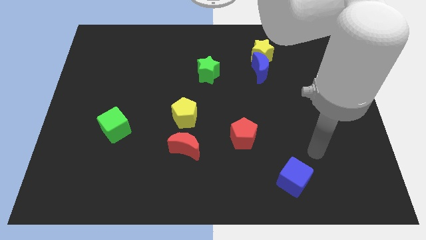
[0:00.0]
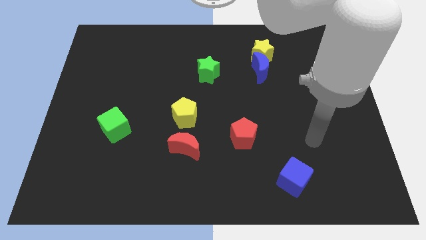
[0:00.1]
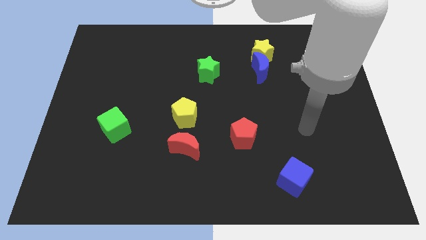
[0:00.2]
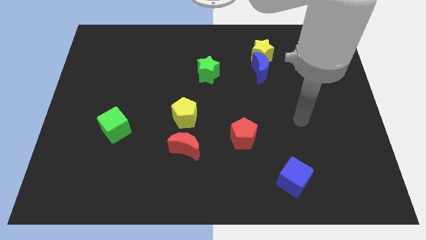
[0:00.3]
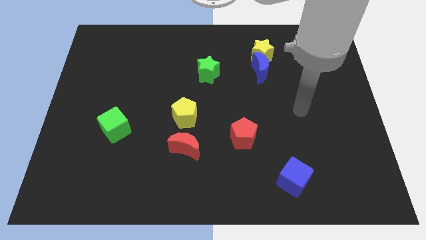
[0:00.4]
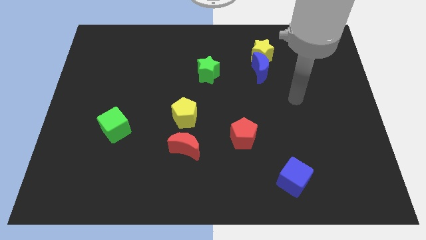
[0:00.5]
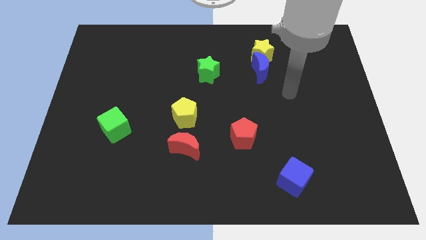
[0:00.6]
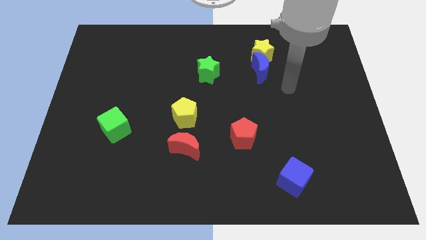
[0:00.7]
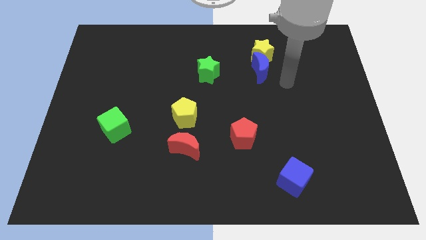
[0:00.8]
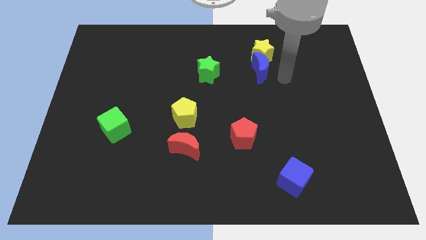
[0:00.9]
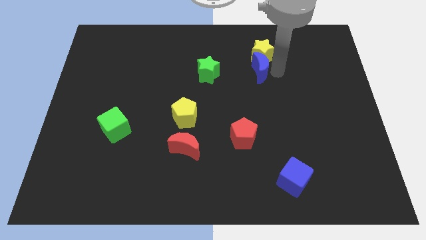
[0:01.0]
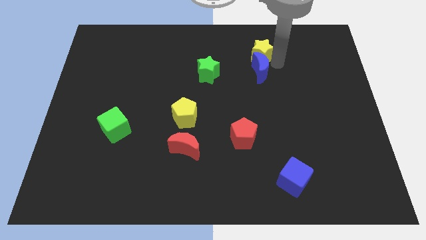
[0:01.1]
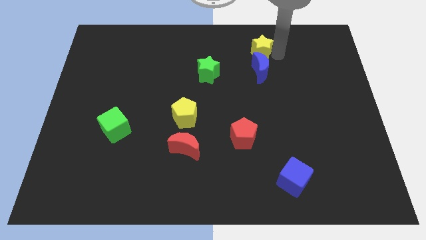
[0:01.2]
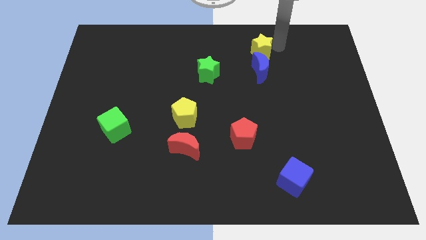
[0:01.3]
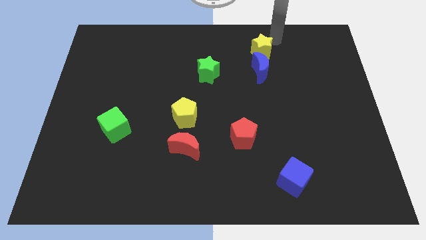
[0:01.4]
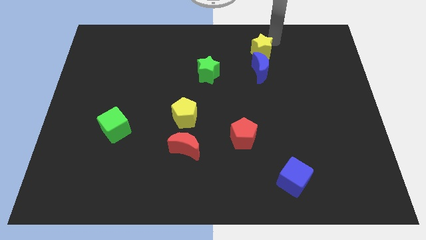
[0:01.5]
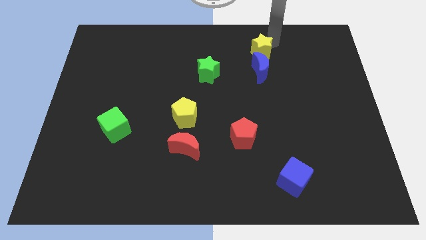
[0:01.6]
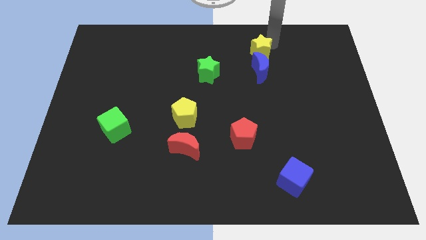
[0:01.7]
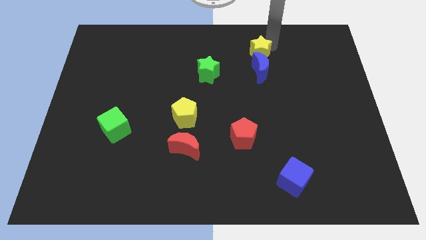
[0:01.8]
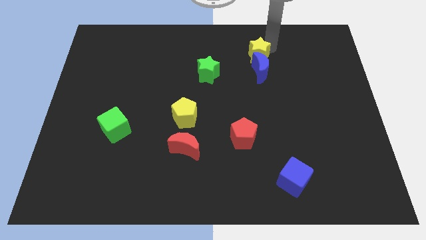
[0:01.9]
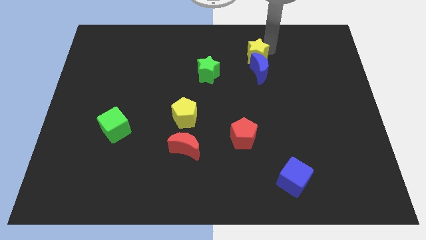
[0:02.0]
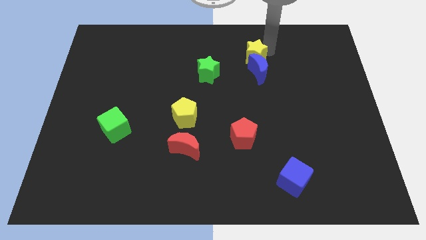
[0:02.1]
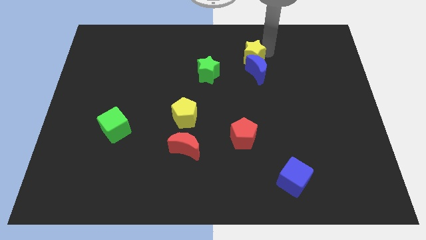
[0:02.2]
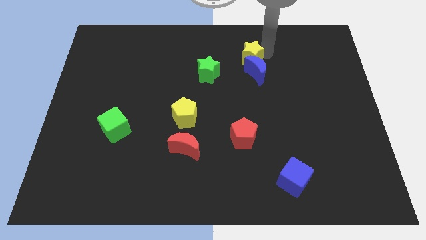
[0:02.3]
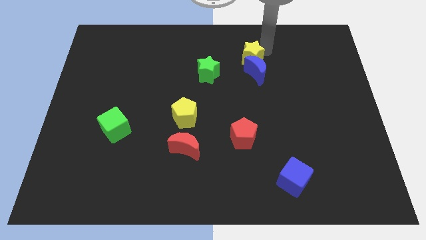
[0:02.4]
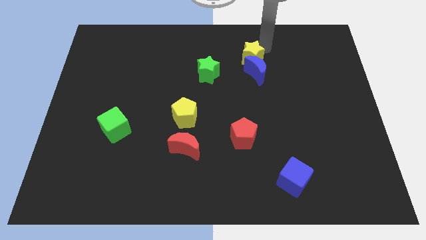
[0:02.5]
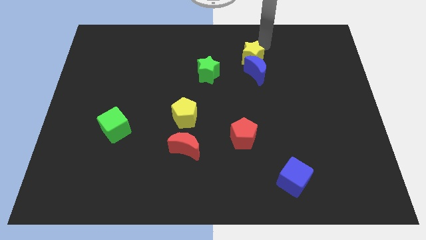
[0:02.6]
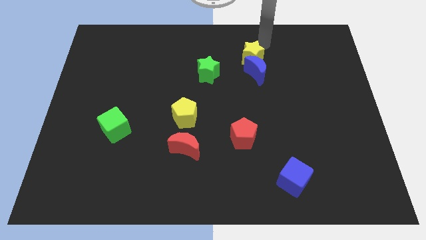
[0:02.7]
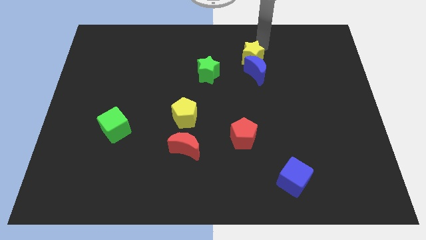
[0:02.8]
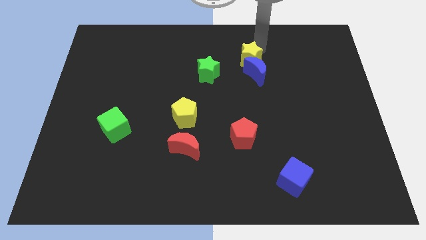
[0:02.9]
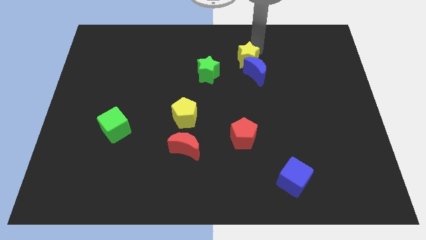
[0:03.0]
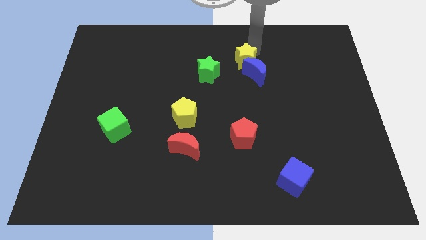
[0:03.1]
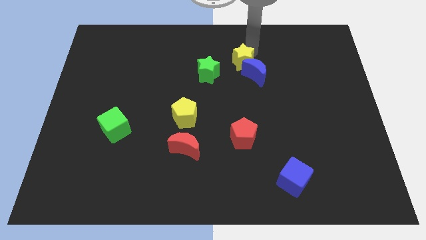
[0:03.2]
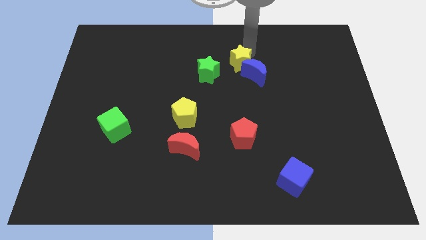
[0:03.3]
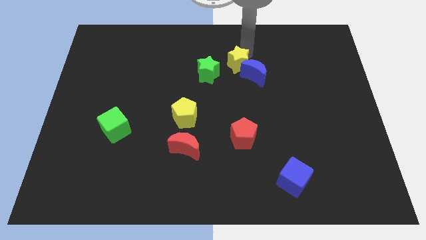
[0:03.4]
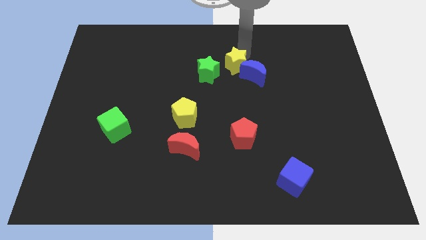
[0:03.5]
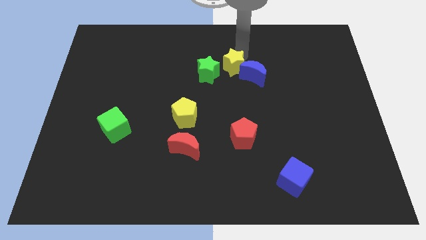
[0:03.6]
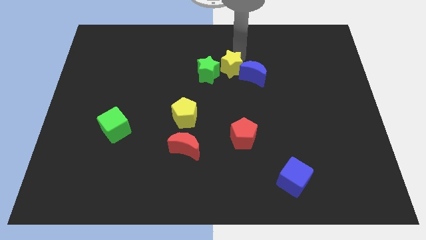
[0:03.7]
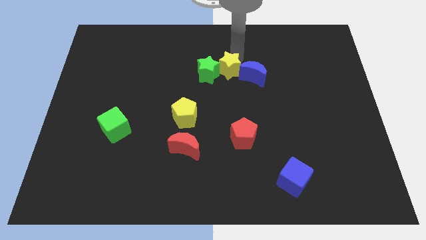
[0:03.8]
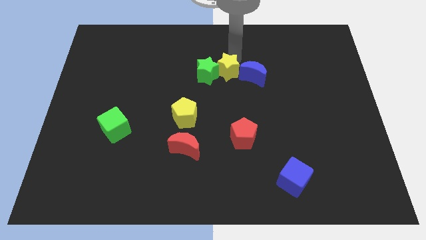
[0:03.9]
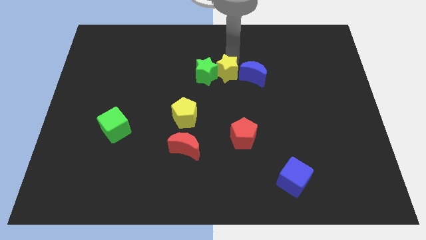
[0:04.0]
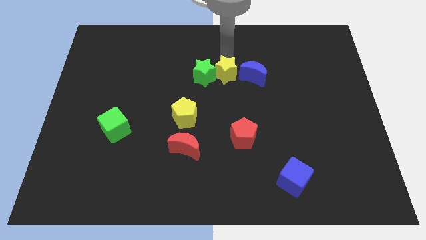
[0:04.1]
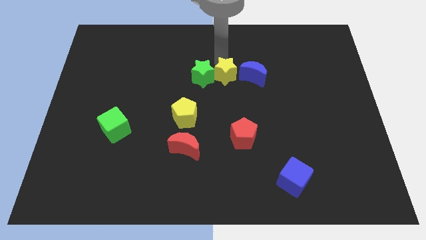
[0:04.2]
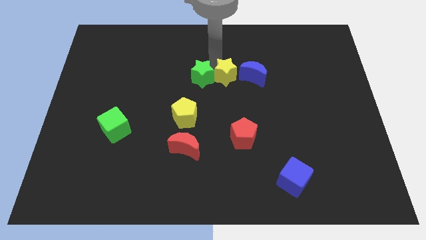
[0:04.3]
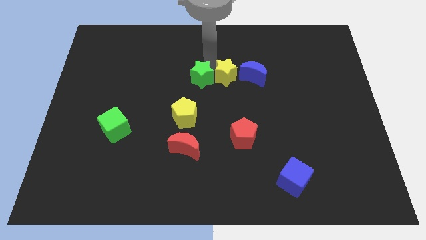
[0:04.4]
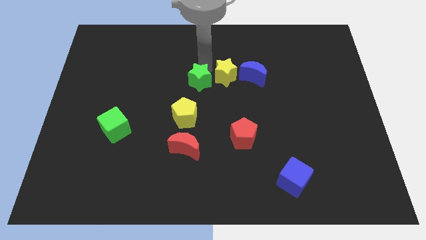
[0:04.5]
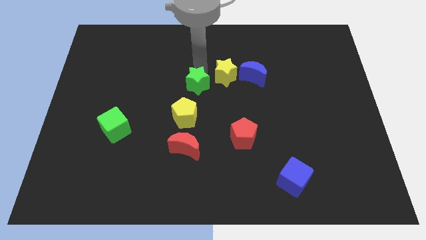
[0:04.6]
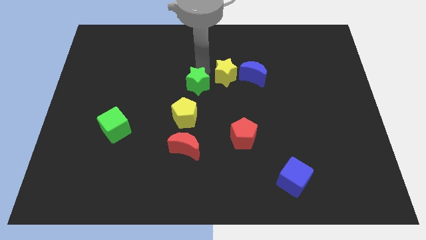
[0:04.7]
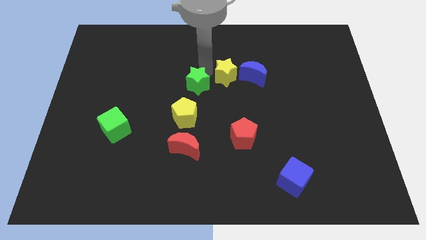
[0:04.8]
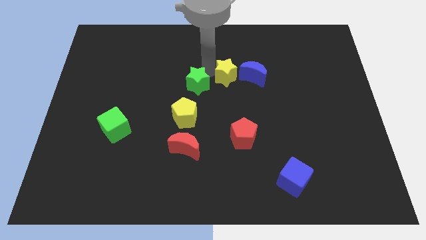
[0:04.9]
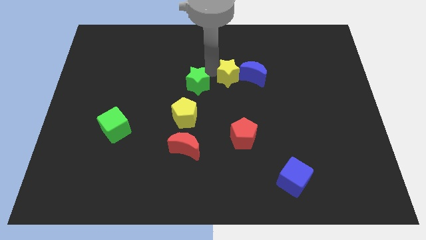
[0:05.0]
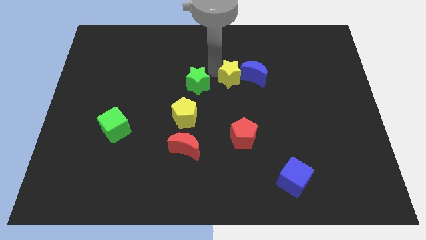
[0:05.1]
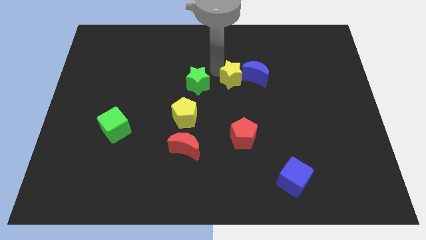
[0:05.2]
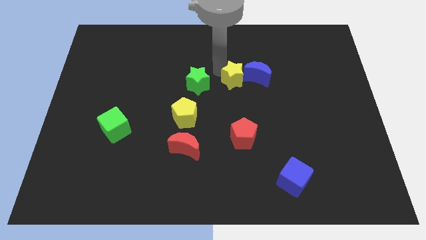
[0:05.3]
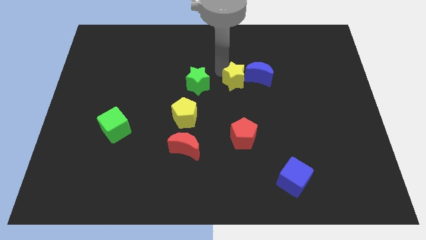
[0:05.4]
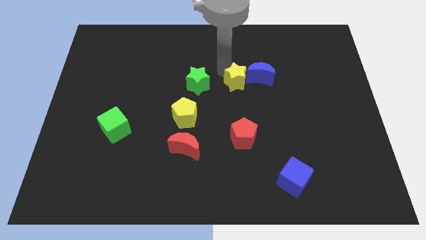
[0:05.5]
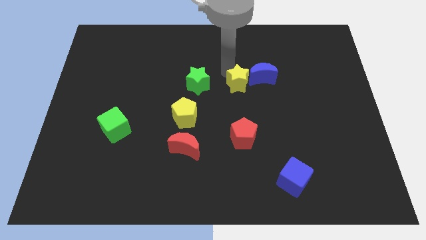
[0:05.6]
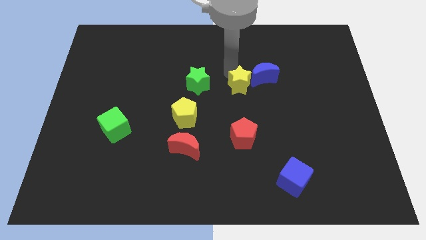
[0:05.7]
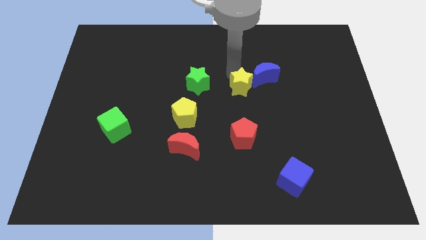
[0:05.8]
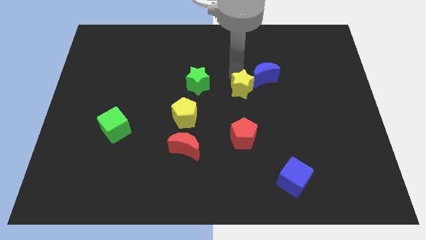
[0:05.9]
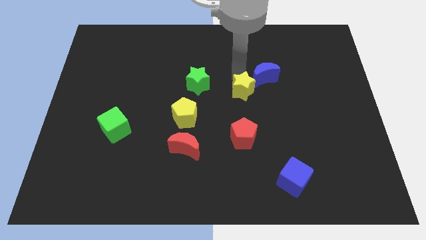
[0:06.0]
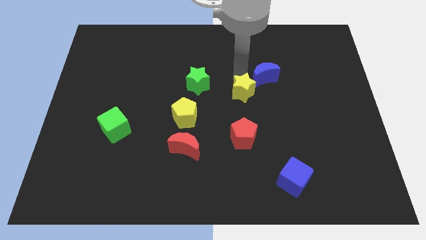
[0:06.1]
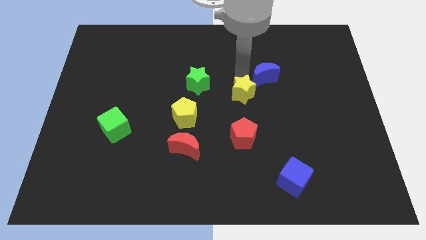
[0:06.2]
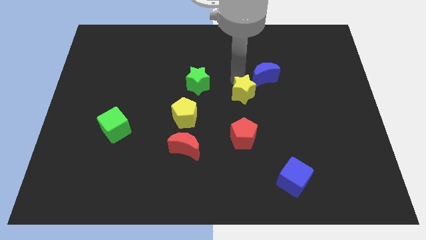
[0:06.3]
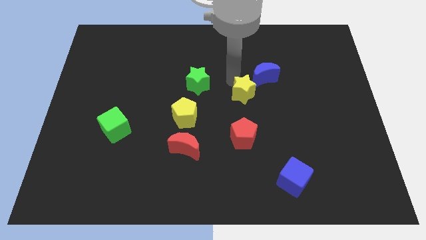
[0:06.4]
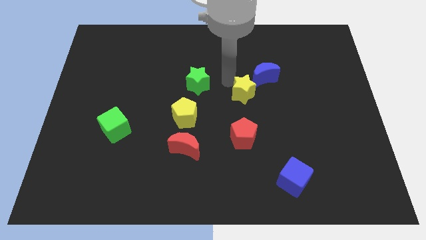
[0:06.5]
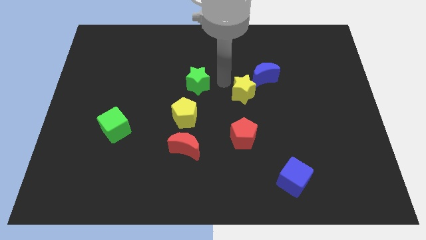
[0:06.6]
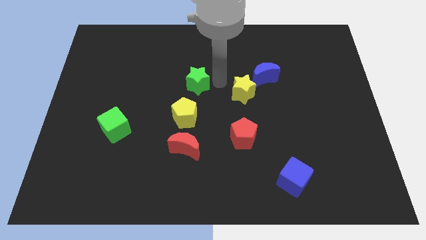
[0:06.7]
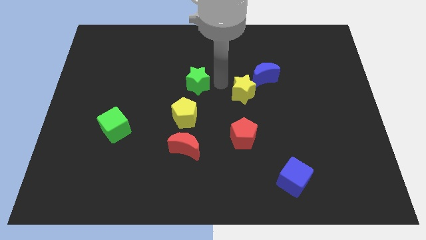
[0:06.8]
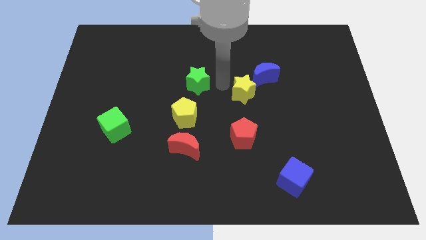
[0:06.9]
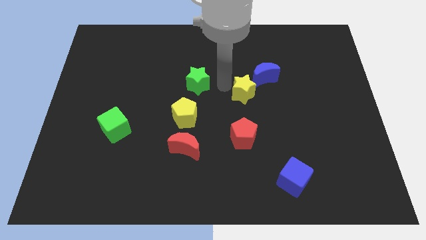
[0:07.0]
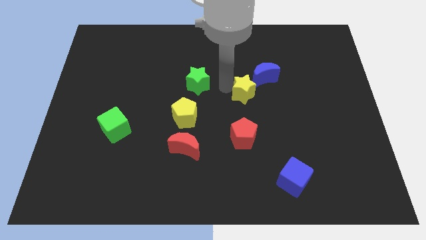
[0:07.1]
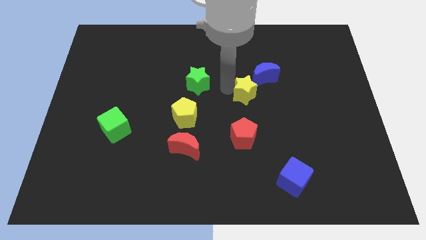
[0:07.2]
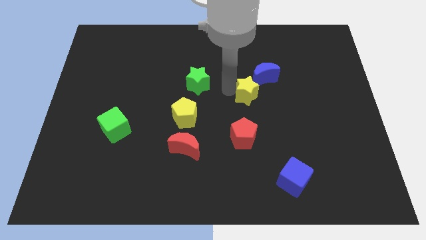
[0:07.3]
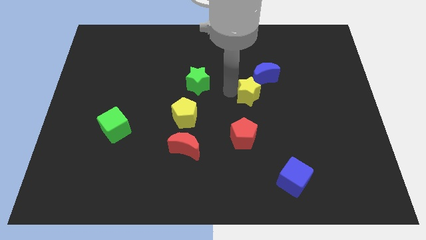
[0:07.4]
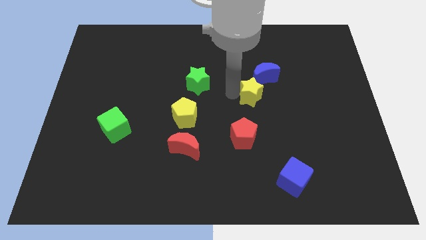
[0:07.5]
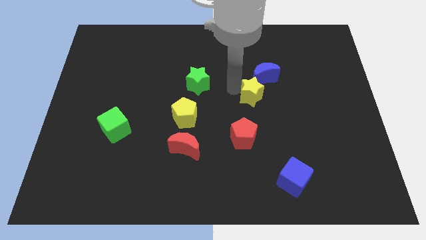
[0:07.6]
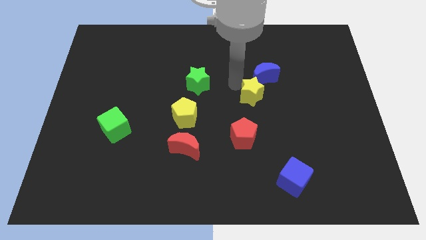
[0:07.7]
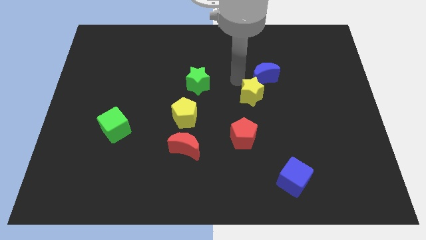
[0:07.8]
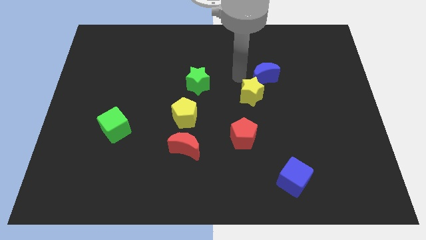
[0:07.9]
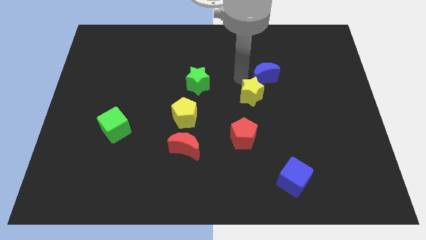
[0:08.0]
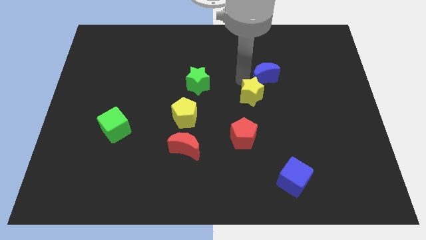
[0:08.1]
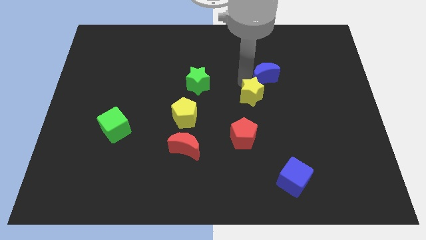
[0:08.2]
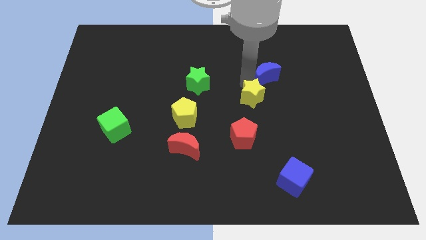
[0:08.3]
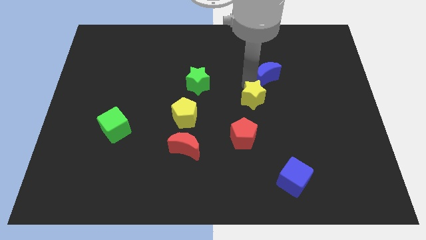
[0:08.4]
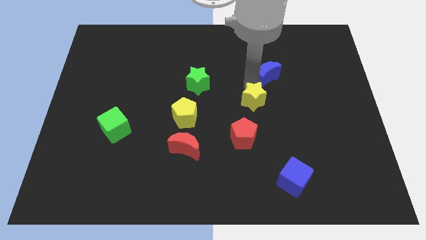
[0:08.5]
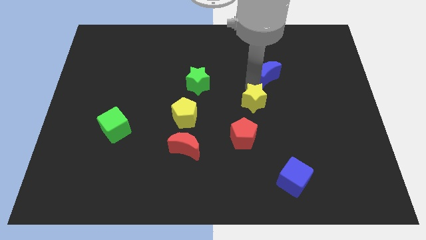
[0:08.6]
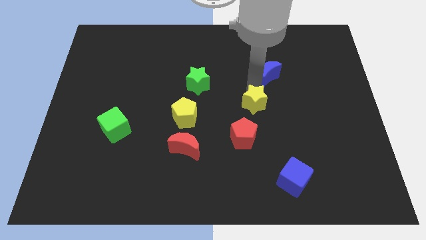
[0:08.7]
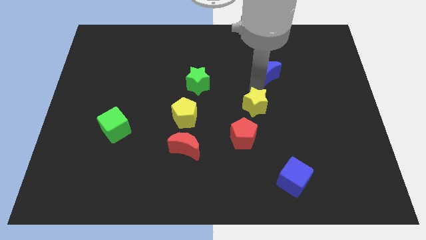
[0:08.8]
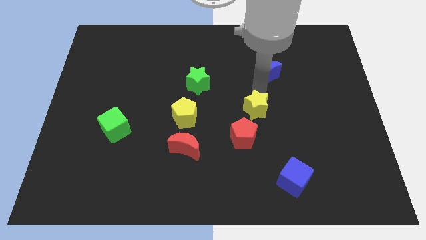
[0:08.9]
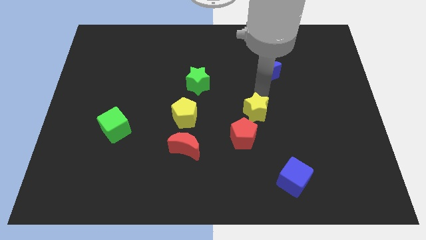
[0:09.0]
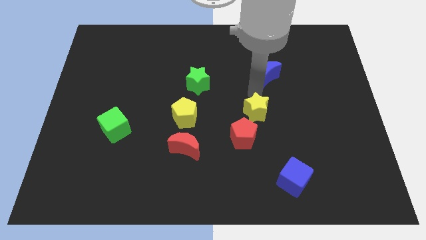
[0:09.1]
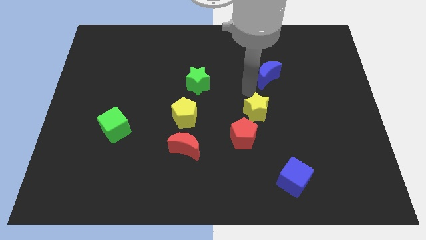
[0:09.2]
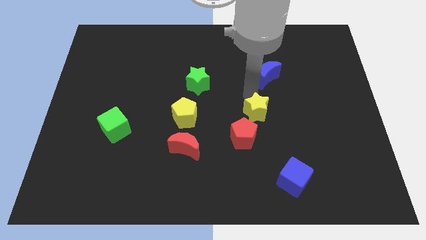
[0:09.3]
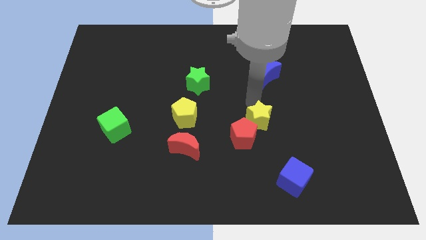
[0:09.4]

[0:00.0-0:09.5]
move the yellow star downwards
